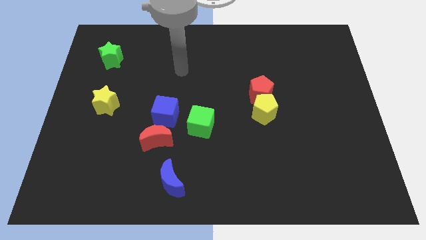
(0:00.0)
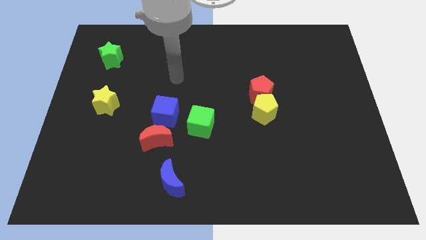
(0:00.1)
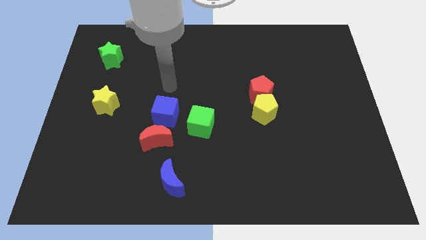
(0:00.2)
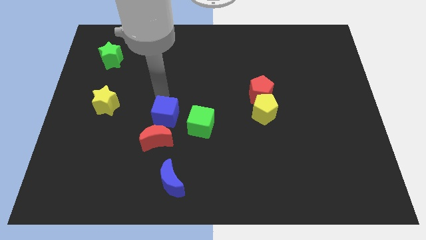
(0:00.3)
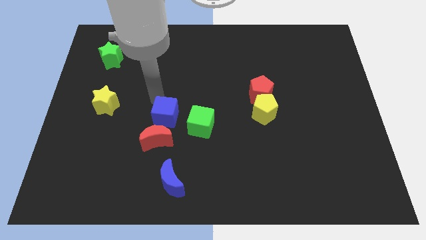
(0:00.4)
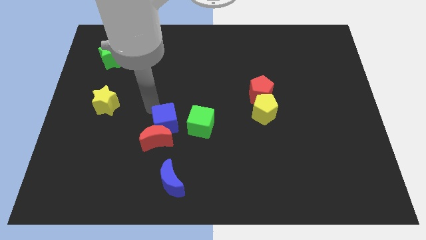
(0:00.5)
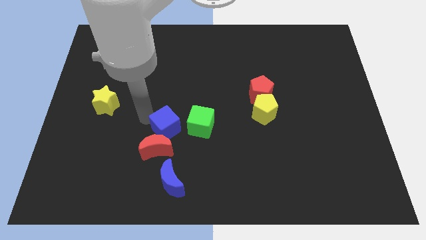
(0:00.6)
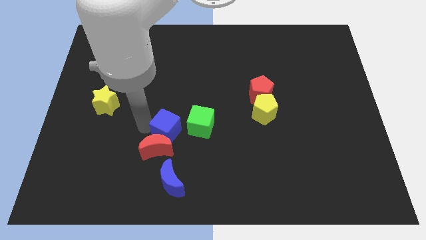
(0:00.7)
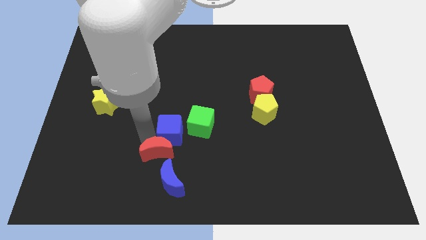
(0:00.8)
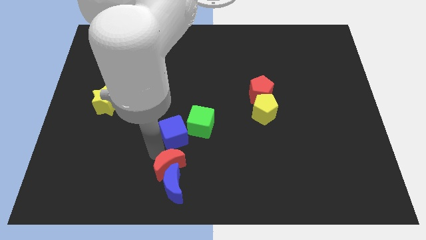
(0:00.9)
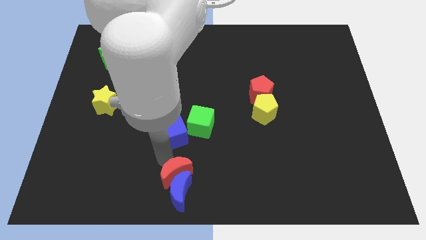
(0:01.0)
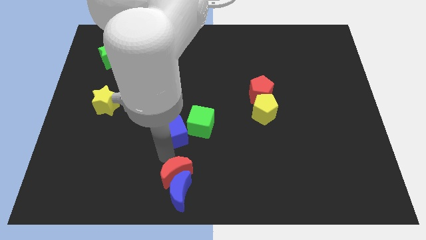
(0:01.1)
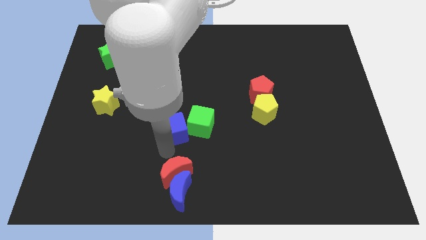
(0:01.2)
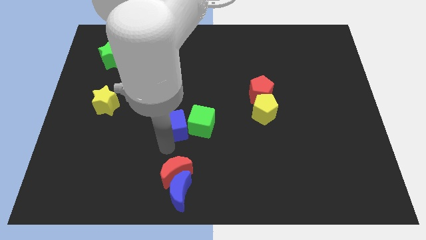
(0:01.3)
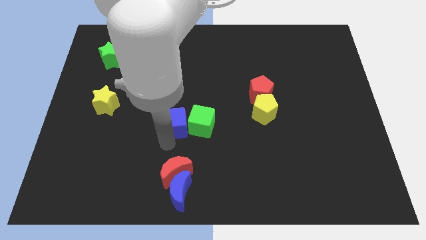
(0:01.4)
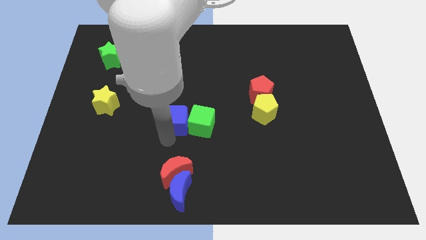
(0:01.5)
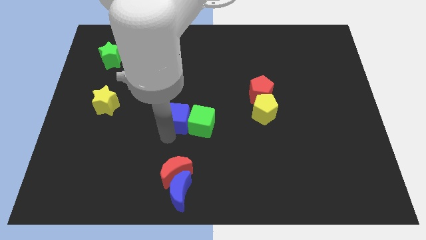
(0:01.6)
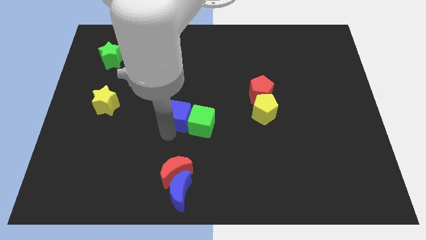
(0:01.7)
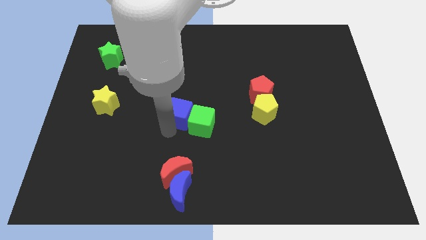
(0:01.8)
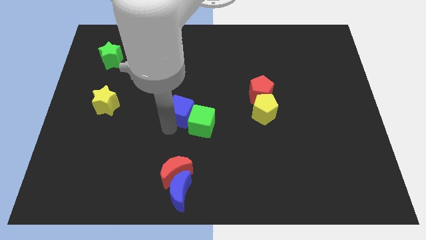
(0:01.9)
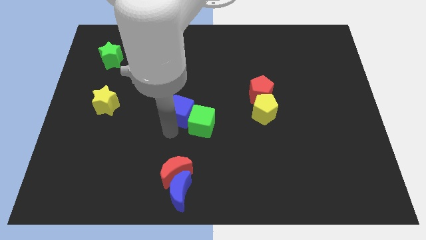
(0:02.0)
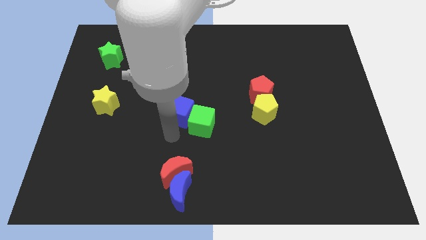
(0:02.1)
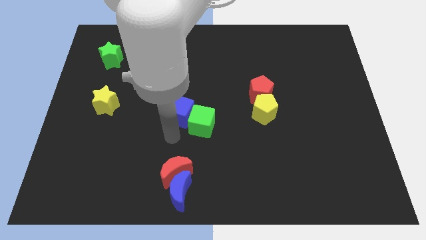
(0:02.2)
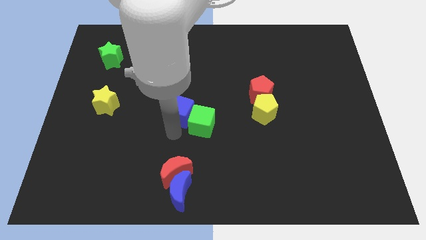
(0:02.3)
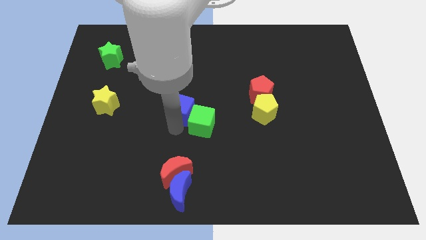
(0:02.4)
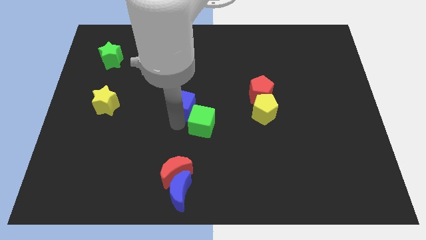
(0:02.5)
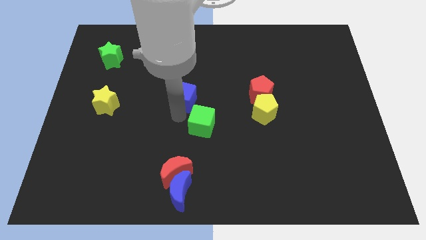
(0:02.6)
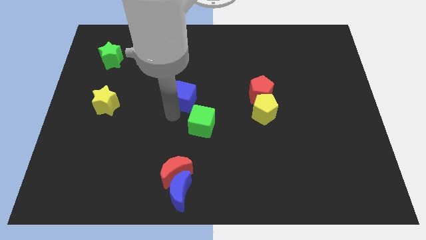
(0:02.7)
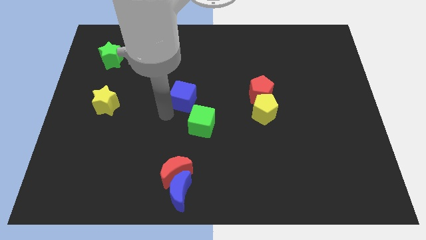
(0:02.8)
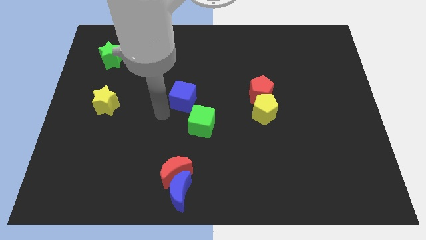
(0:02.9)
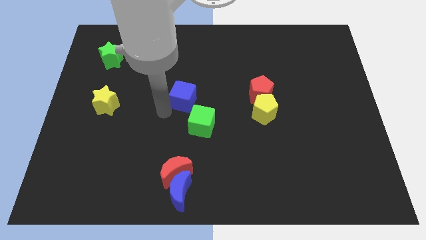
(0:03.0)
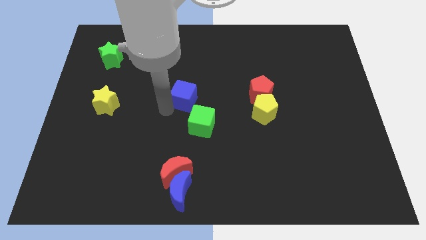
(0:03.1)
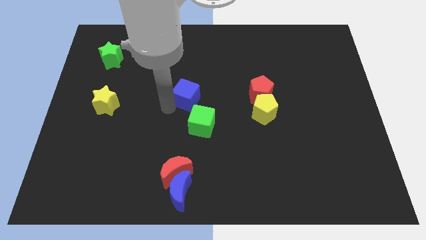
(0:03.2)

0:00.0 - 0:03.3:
slightly slide the blue cube up and right diagonally

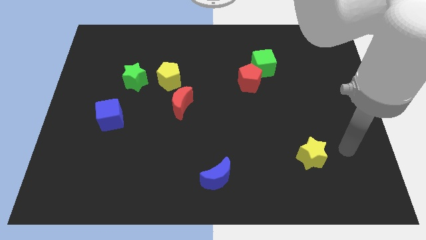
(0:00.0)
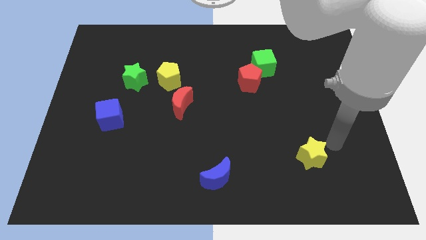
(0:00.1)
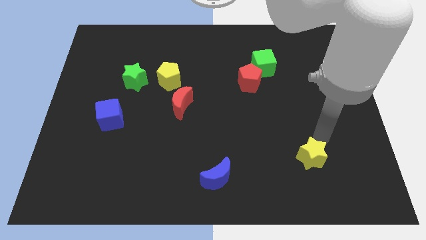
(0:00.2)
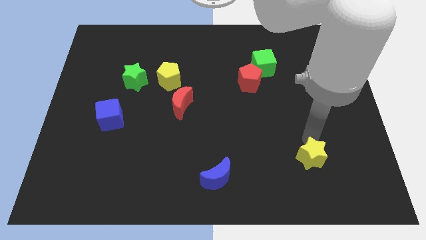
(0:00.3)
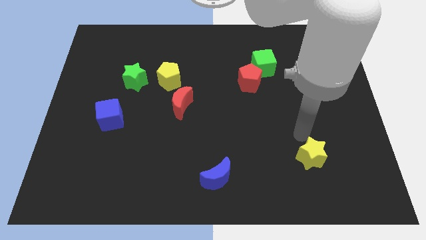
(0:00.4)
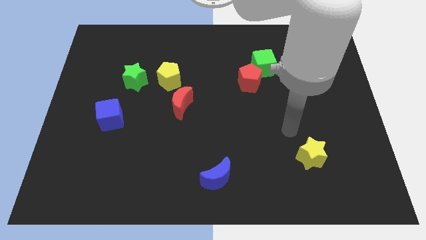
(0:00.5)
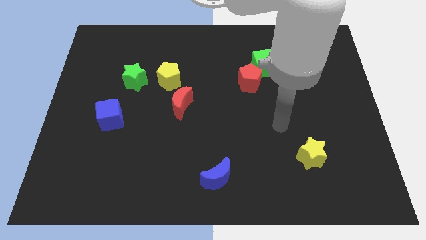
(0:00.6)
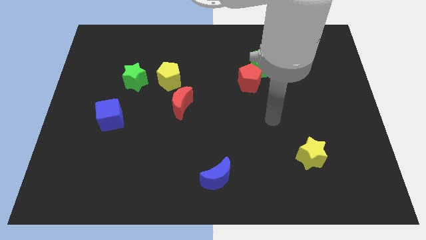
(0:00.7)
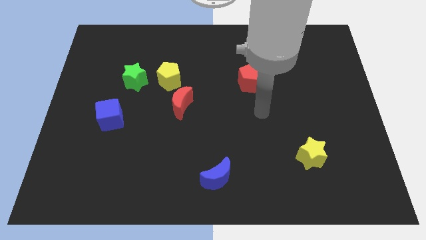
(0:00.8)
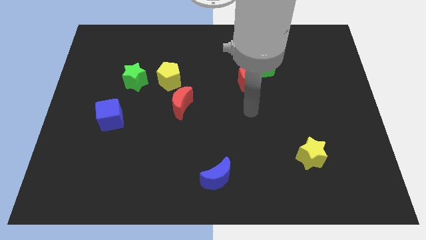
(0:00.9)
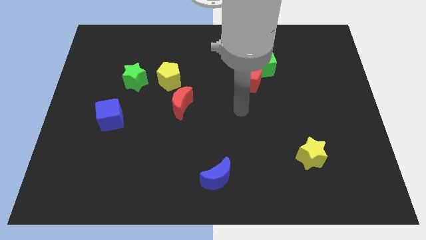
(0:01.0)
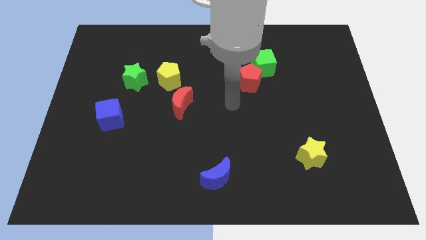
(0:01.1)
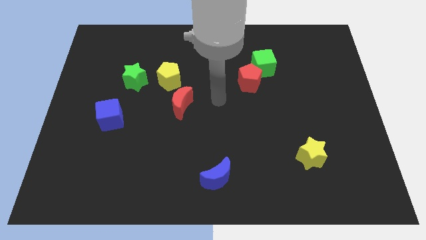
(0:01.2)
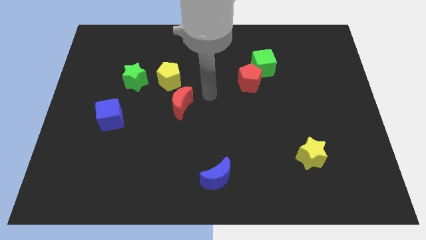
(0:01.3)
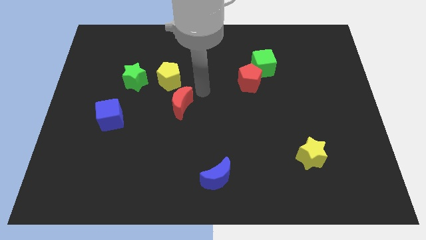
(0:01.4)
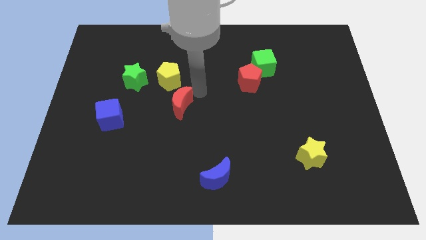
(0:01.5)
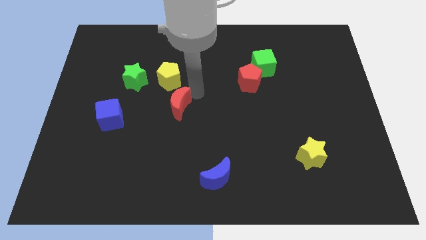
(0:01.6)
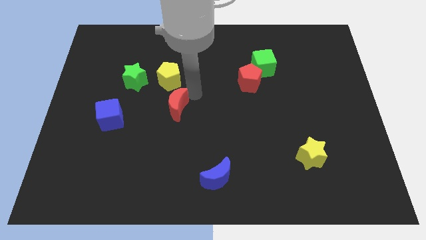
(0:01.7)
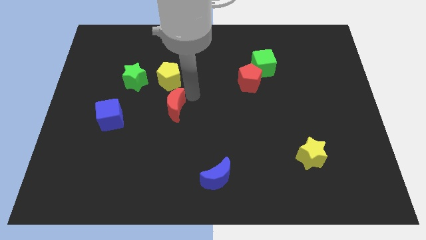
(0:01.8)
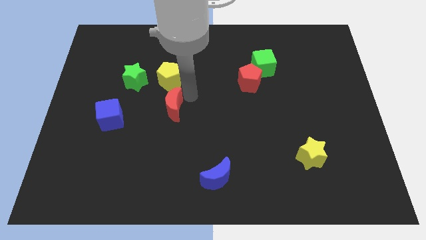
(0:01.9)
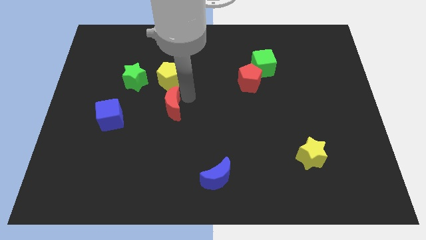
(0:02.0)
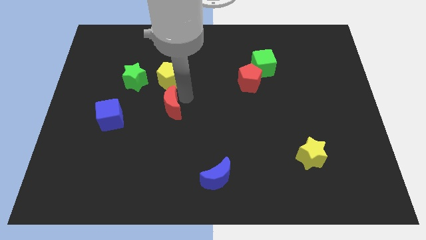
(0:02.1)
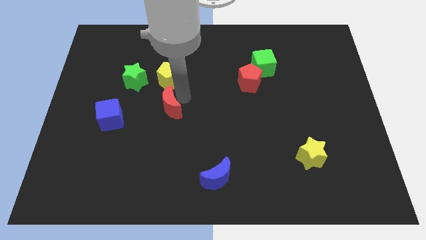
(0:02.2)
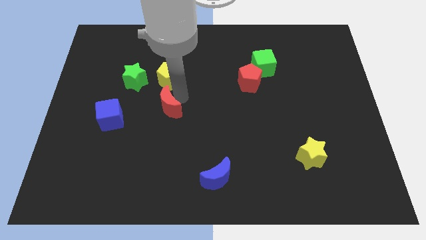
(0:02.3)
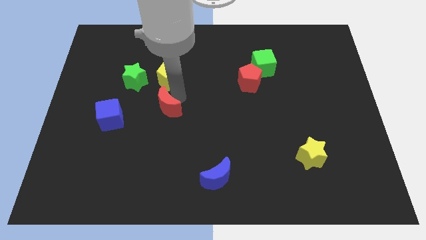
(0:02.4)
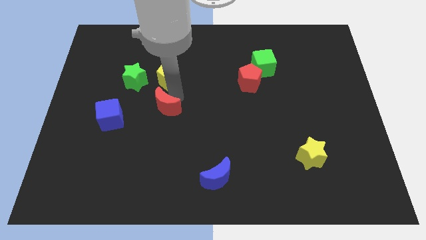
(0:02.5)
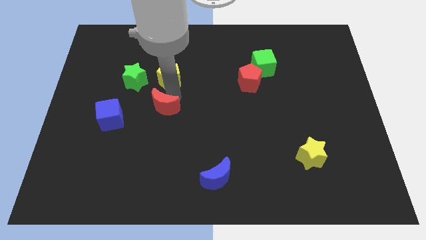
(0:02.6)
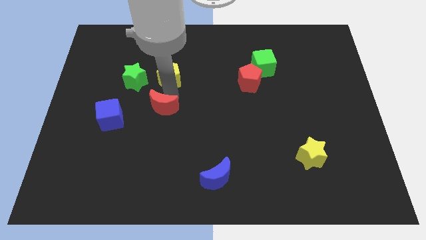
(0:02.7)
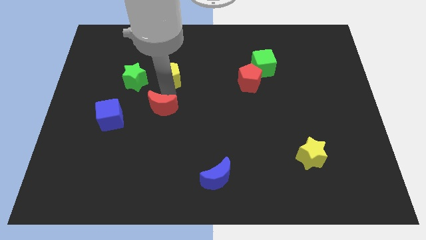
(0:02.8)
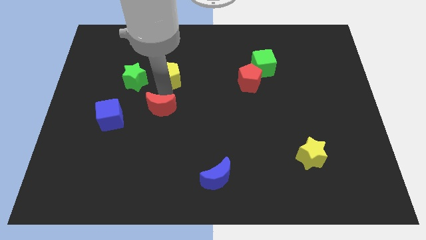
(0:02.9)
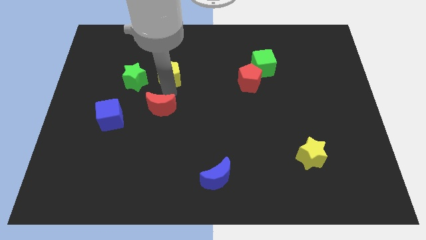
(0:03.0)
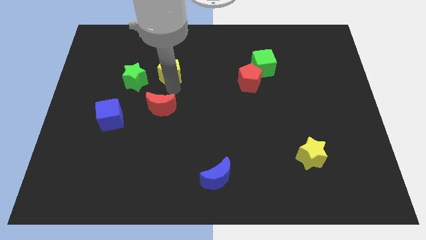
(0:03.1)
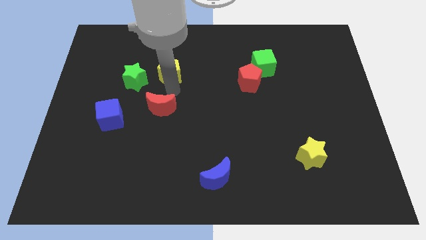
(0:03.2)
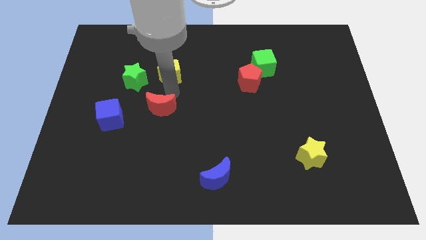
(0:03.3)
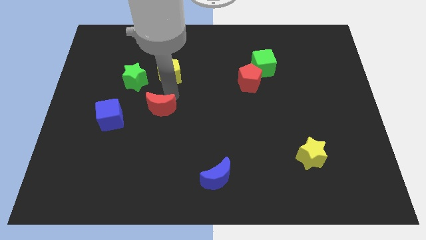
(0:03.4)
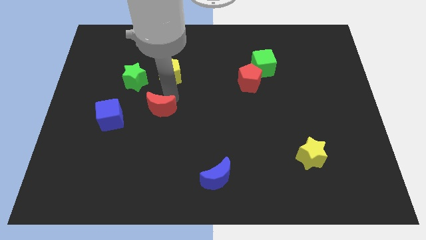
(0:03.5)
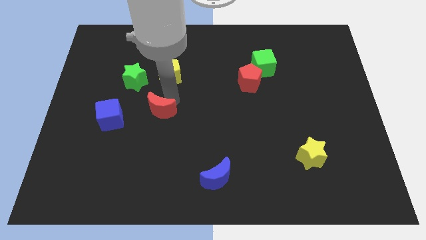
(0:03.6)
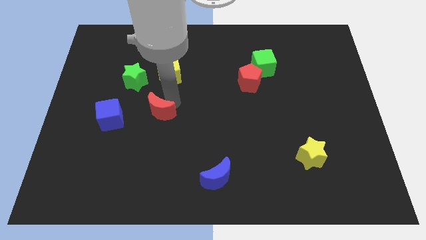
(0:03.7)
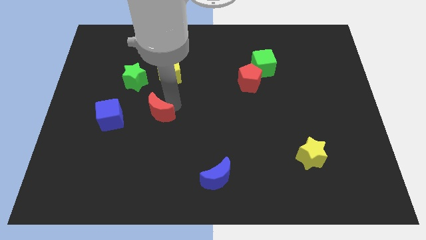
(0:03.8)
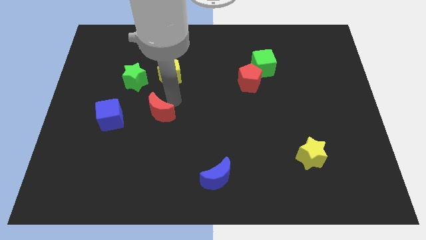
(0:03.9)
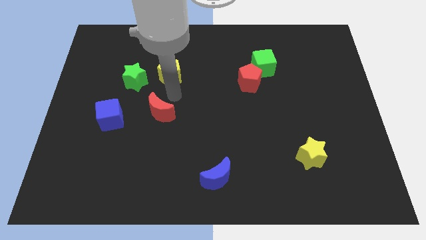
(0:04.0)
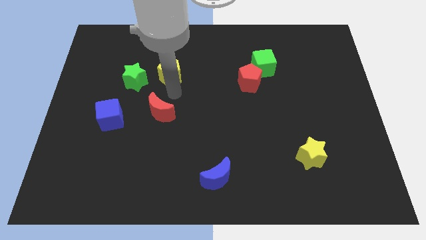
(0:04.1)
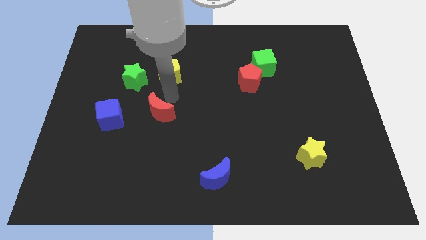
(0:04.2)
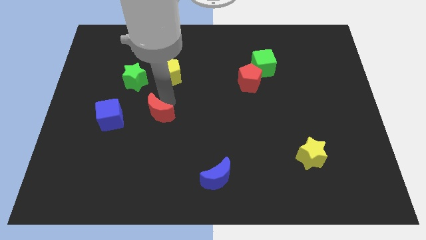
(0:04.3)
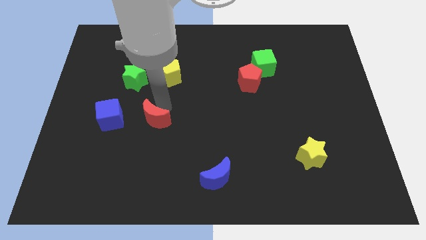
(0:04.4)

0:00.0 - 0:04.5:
slightly move the red moon down and to the left diagonally

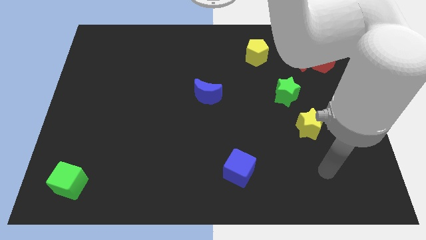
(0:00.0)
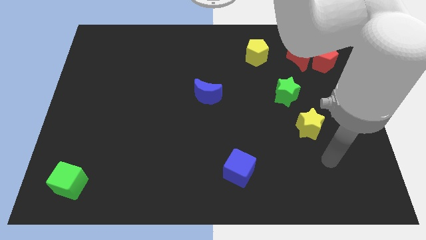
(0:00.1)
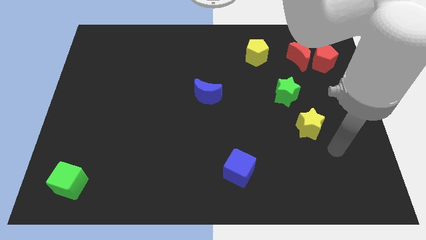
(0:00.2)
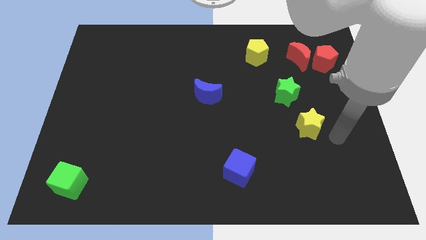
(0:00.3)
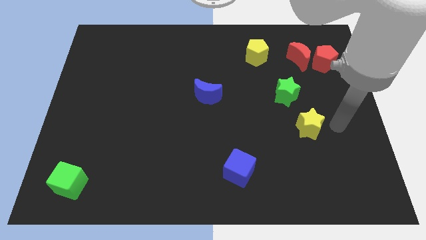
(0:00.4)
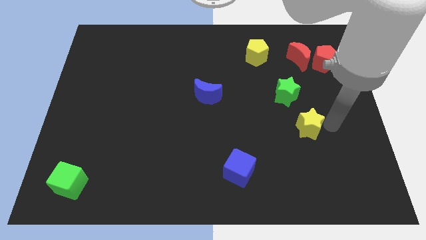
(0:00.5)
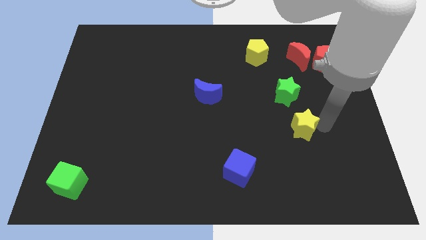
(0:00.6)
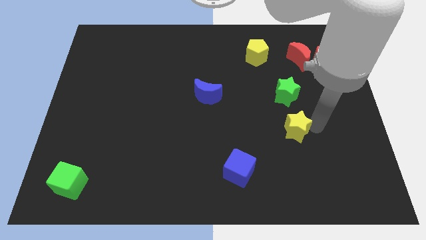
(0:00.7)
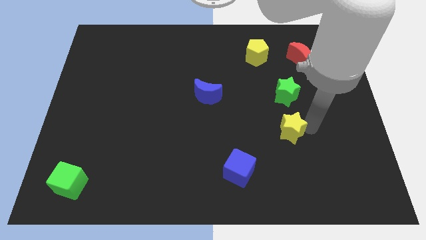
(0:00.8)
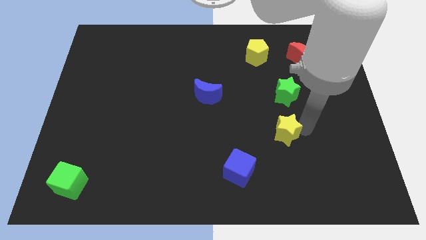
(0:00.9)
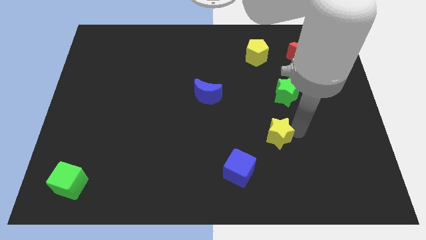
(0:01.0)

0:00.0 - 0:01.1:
move the yellow star a bit to the left
